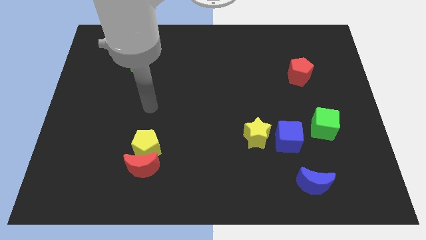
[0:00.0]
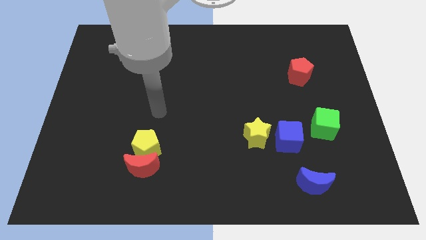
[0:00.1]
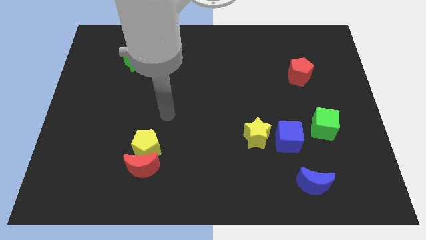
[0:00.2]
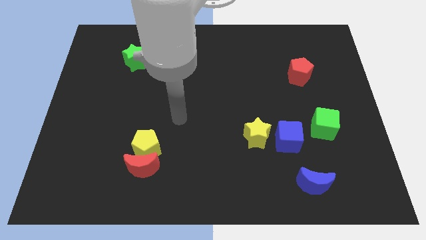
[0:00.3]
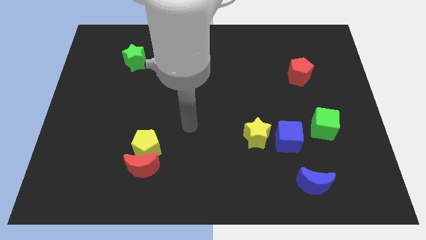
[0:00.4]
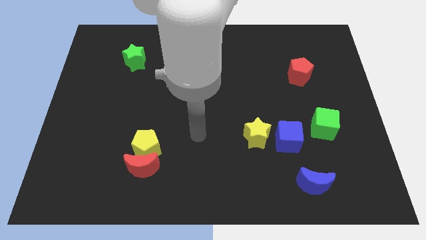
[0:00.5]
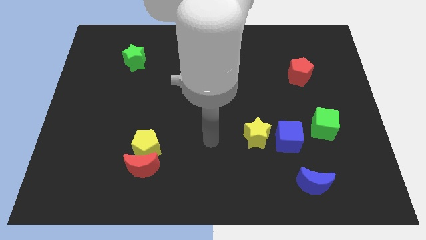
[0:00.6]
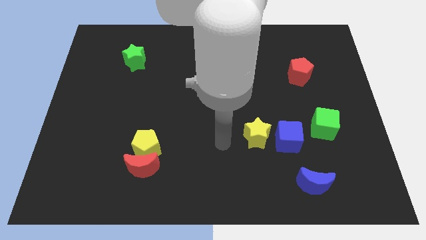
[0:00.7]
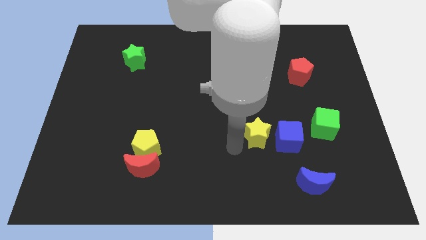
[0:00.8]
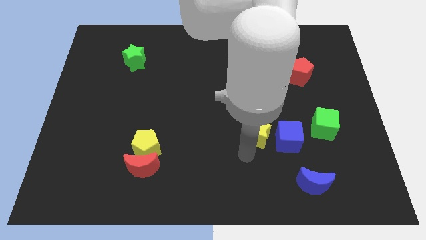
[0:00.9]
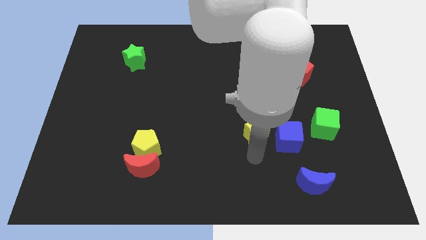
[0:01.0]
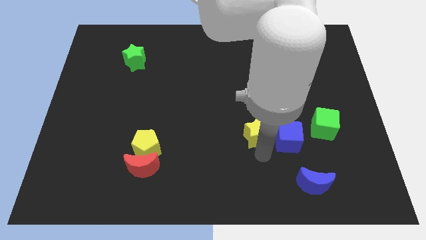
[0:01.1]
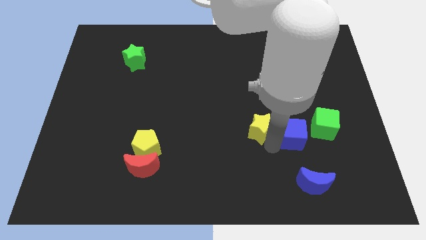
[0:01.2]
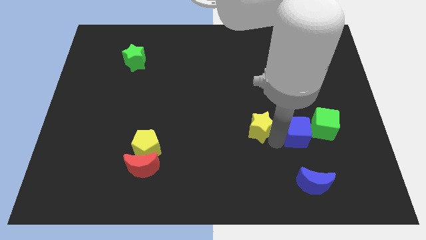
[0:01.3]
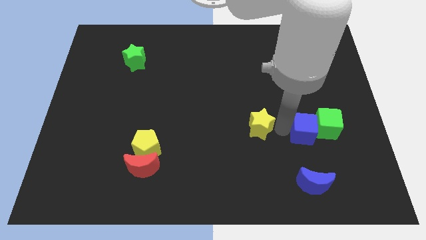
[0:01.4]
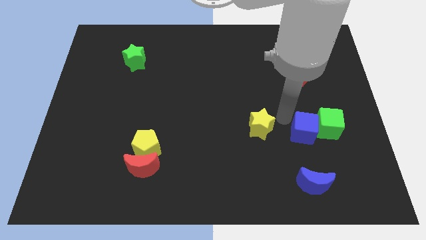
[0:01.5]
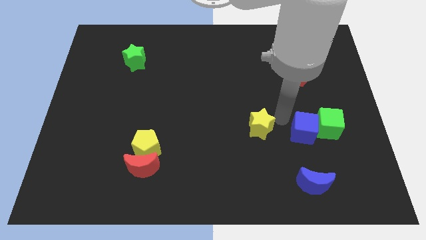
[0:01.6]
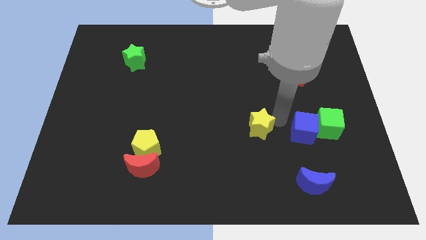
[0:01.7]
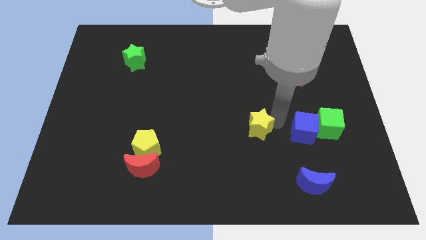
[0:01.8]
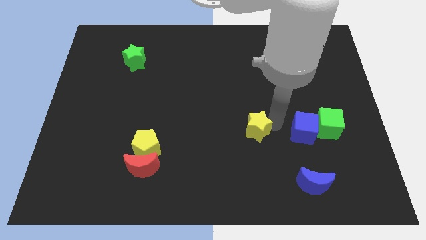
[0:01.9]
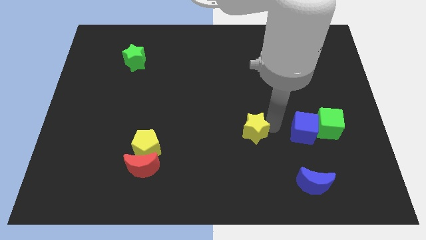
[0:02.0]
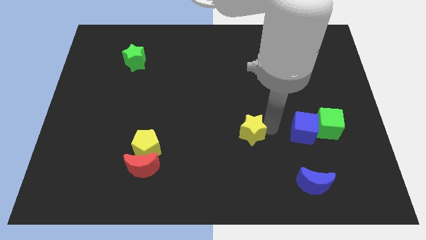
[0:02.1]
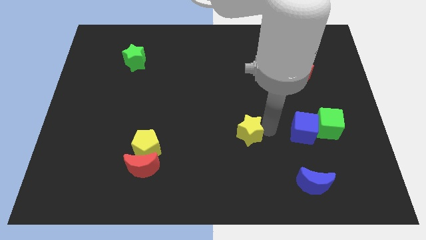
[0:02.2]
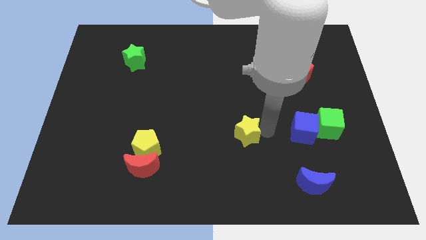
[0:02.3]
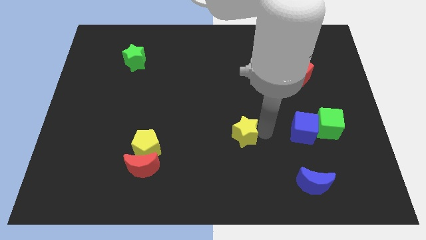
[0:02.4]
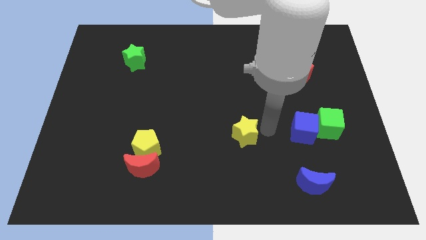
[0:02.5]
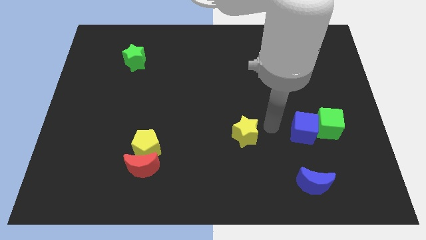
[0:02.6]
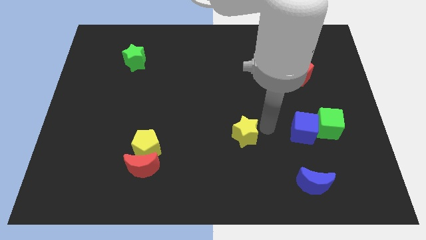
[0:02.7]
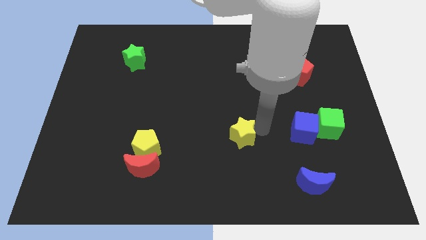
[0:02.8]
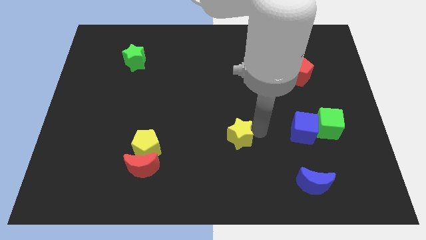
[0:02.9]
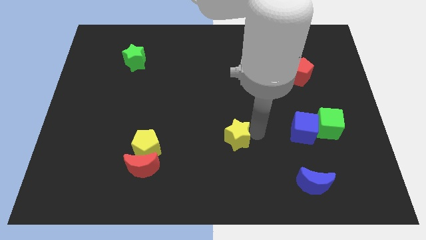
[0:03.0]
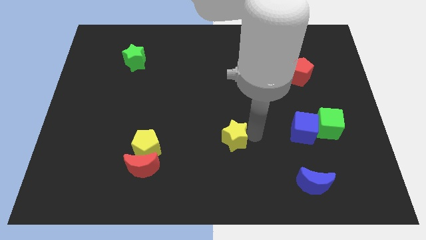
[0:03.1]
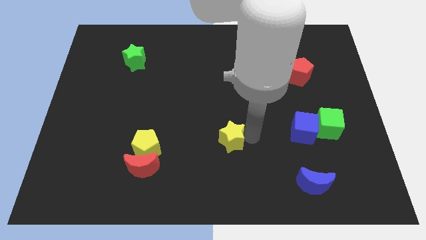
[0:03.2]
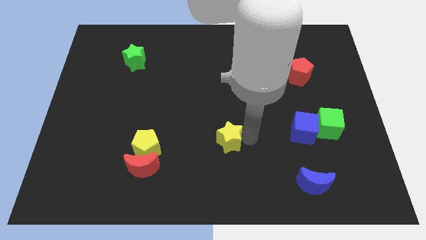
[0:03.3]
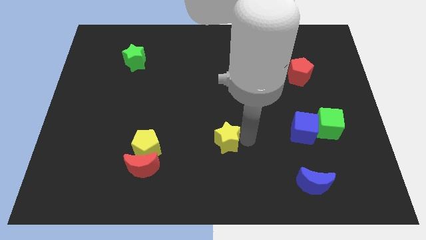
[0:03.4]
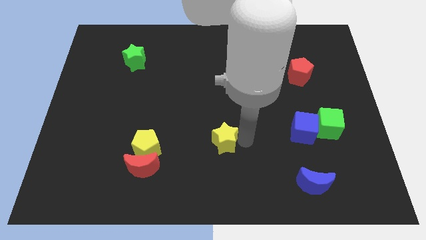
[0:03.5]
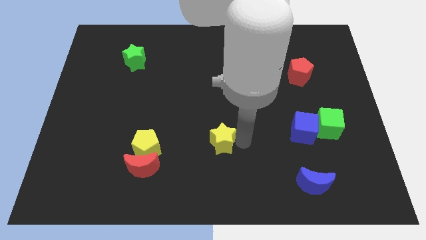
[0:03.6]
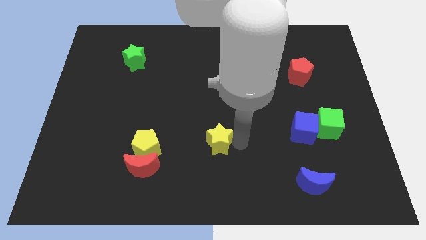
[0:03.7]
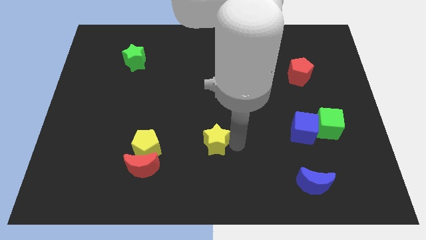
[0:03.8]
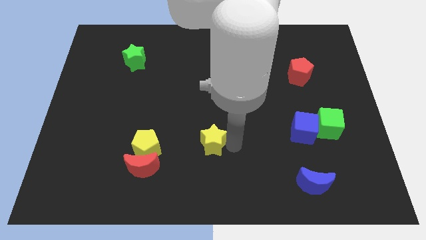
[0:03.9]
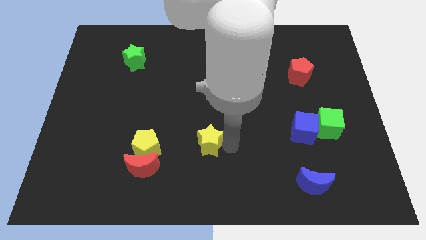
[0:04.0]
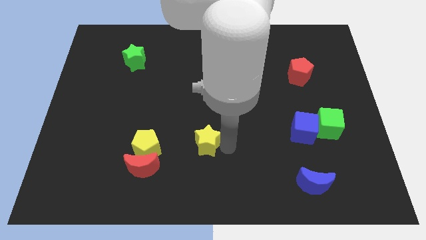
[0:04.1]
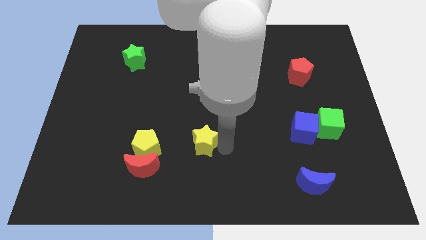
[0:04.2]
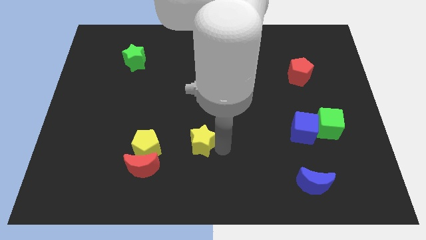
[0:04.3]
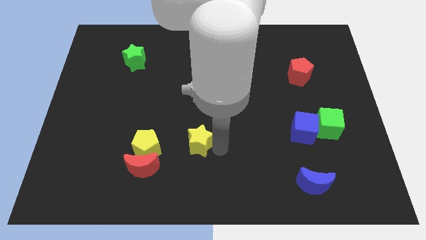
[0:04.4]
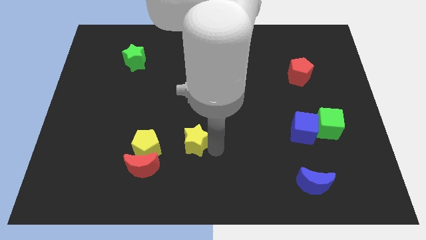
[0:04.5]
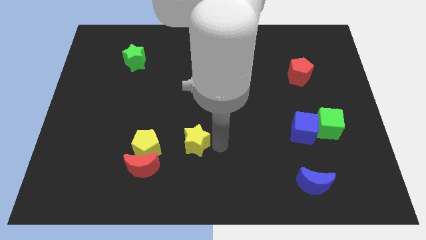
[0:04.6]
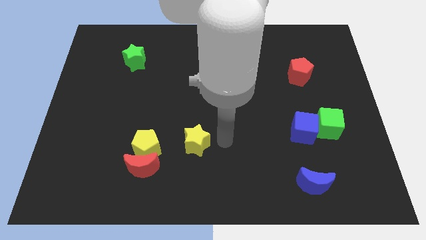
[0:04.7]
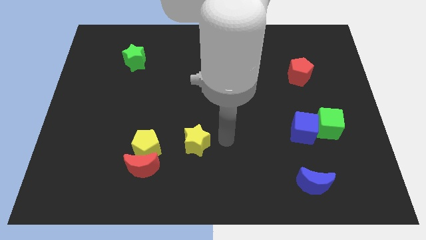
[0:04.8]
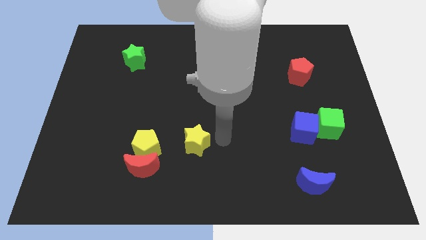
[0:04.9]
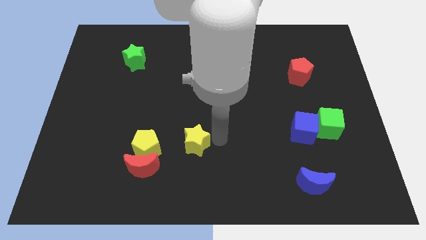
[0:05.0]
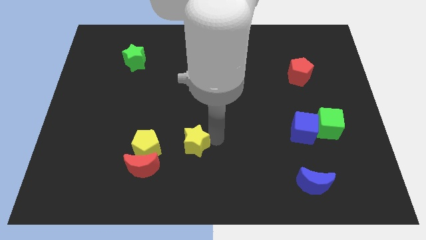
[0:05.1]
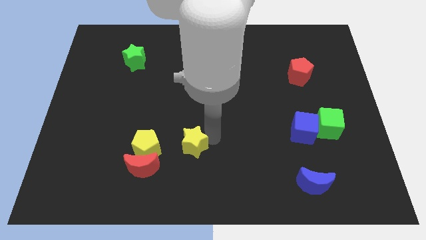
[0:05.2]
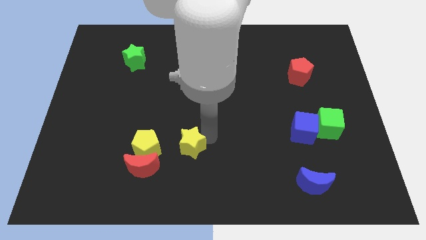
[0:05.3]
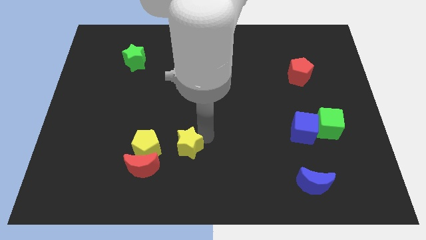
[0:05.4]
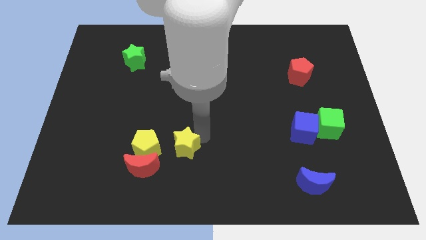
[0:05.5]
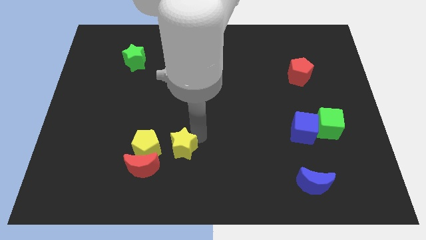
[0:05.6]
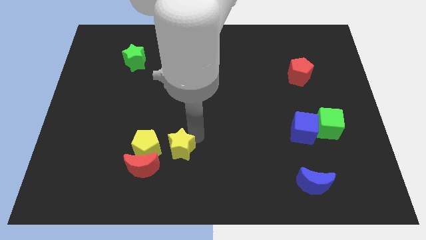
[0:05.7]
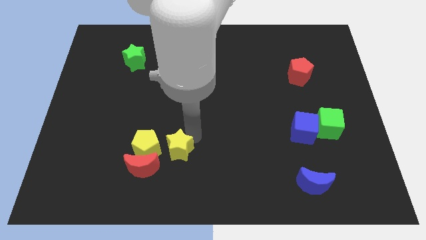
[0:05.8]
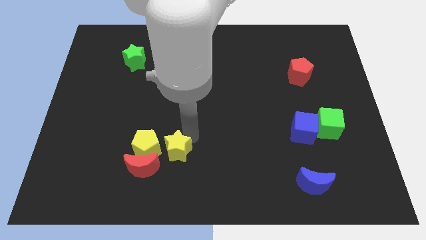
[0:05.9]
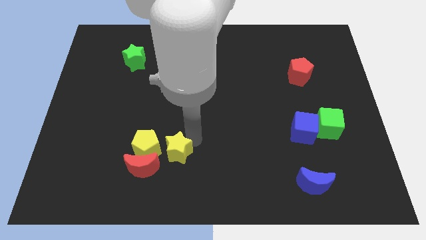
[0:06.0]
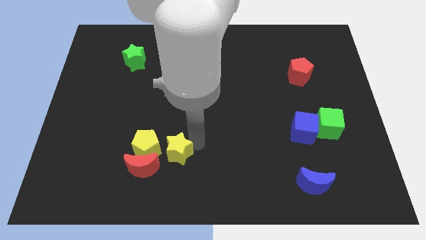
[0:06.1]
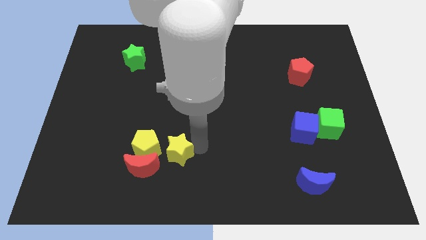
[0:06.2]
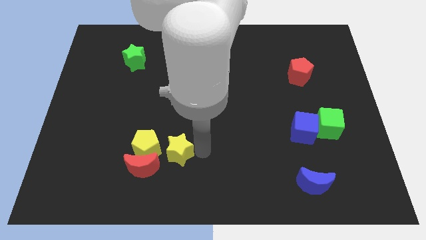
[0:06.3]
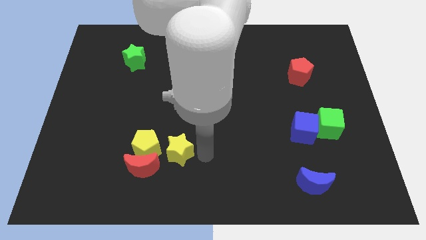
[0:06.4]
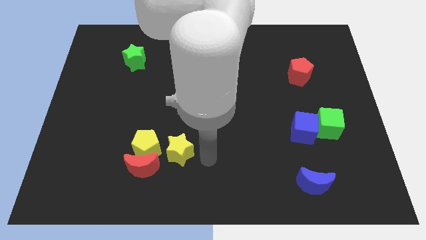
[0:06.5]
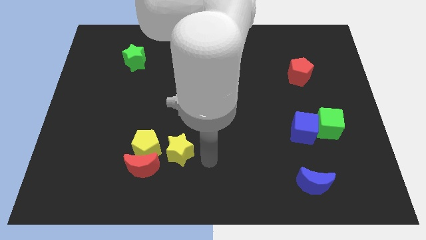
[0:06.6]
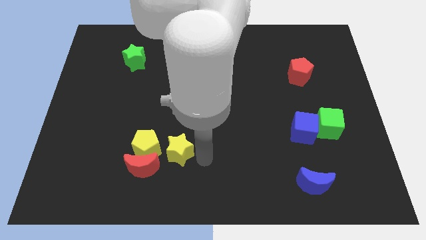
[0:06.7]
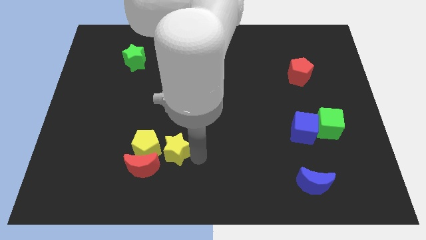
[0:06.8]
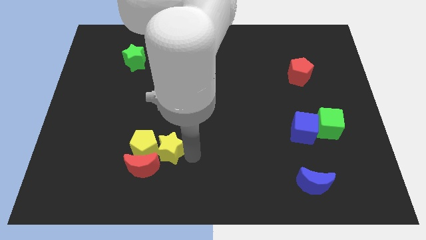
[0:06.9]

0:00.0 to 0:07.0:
move the yellow star next to the yellow pentagon
